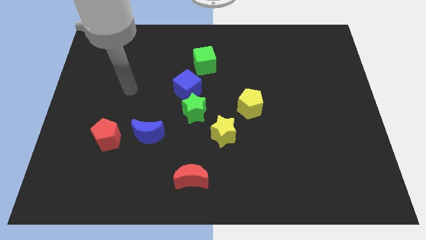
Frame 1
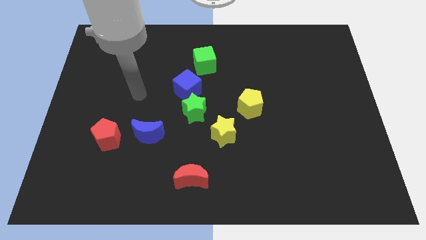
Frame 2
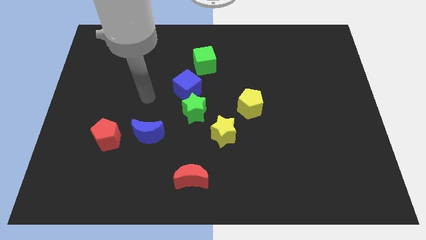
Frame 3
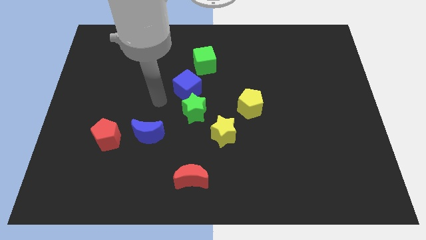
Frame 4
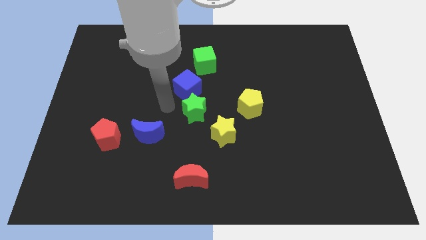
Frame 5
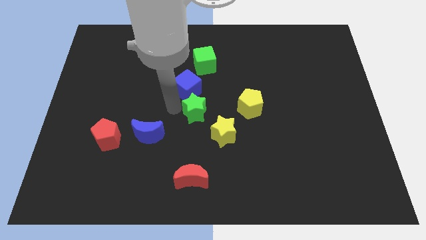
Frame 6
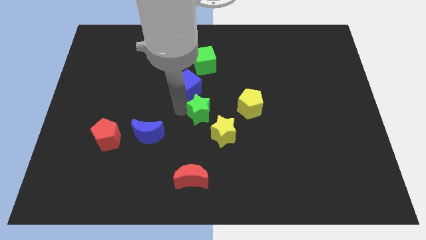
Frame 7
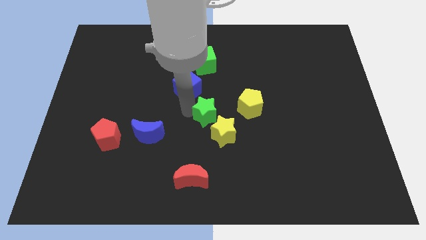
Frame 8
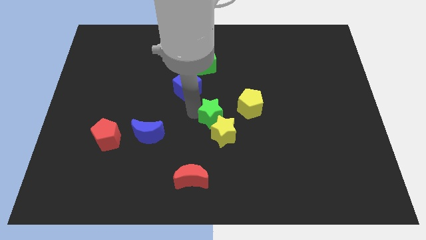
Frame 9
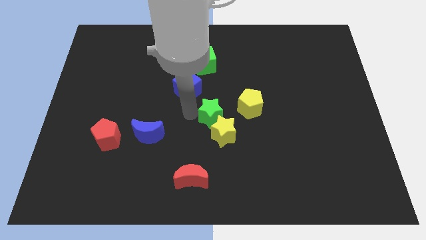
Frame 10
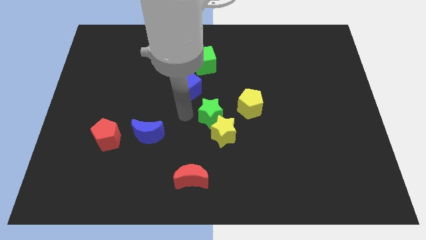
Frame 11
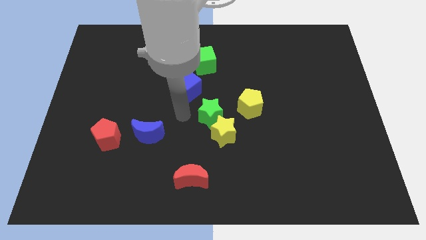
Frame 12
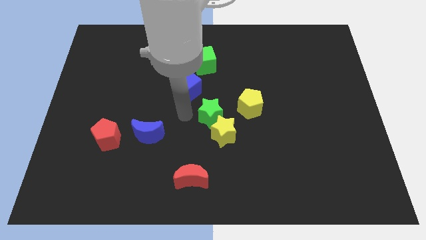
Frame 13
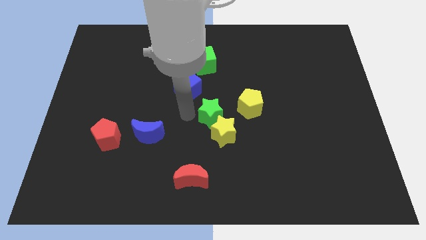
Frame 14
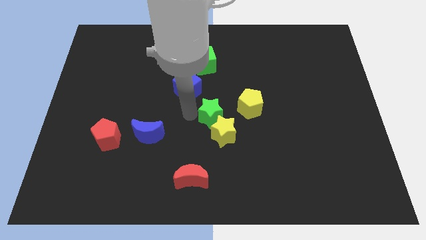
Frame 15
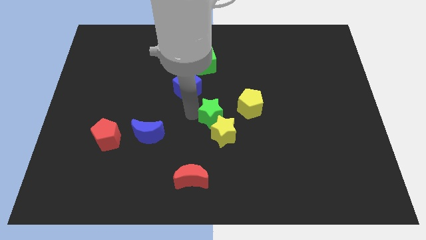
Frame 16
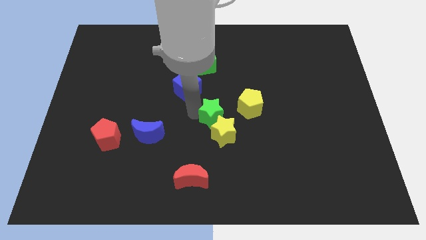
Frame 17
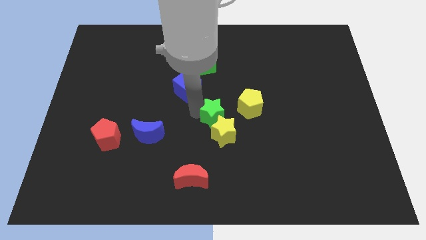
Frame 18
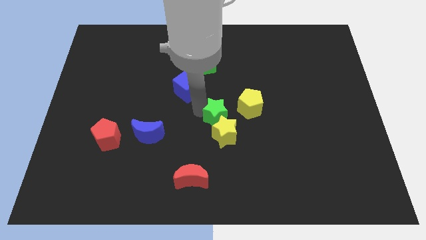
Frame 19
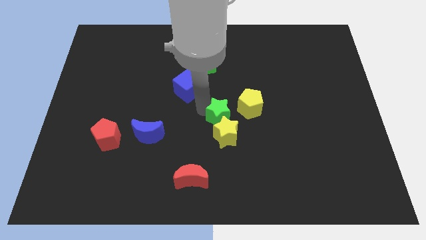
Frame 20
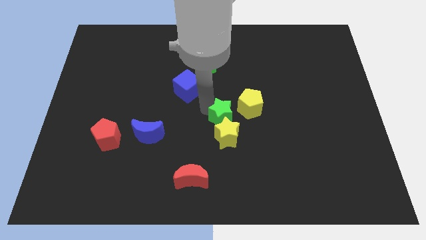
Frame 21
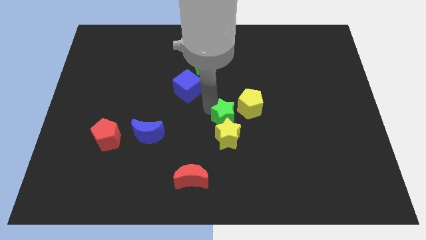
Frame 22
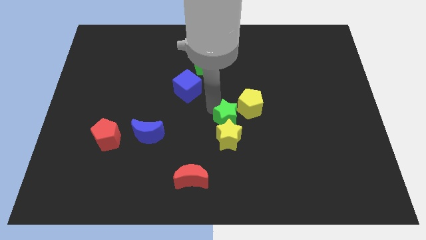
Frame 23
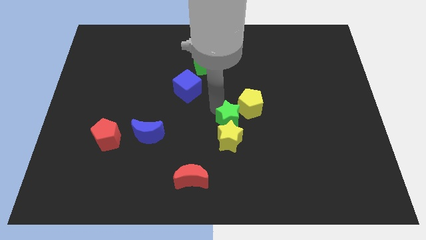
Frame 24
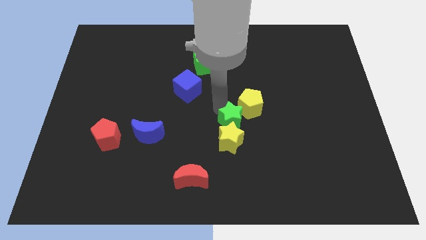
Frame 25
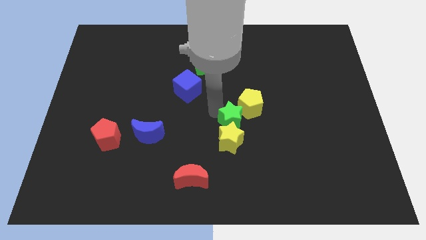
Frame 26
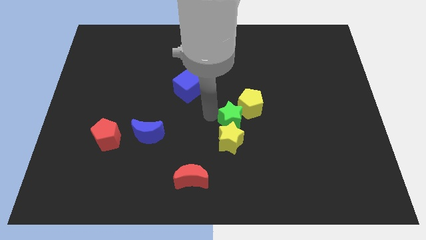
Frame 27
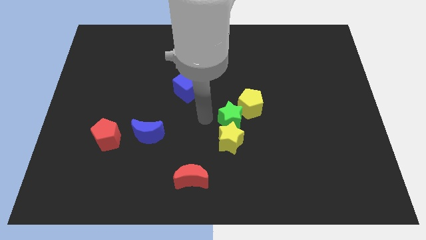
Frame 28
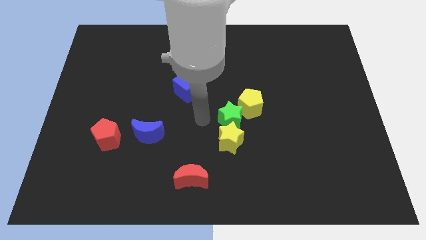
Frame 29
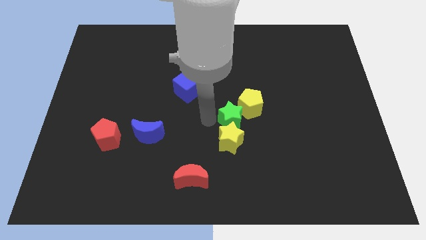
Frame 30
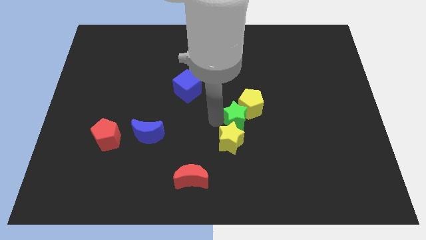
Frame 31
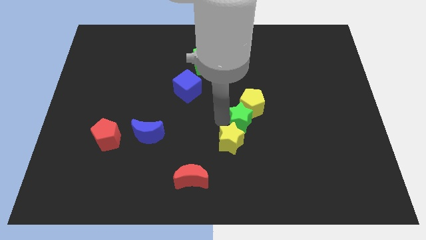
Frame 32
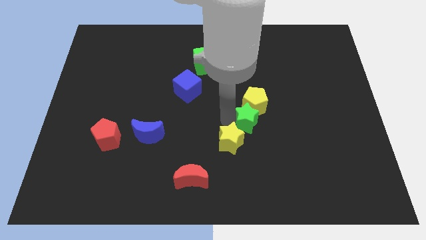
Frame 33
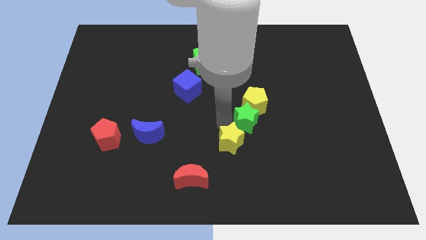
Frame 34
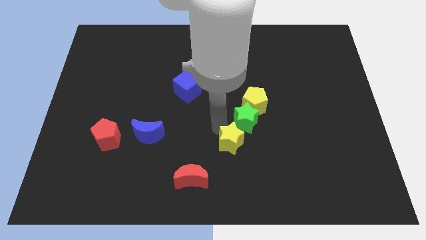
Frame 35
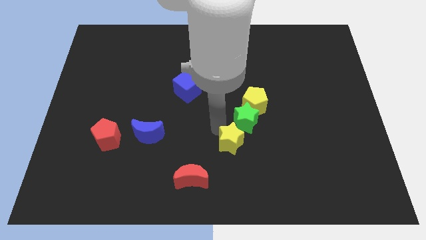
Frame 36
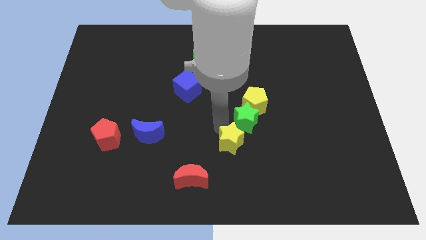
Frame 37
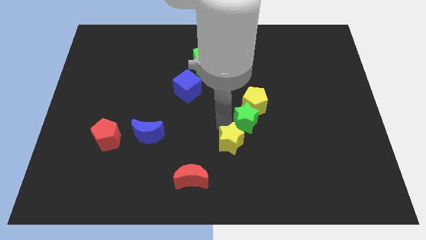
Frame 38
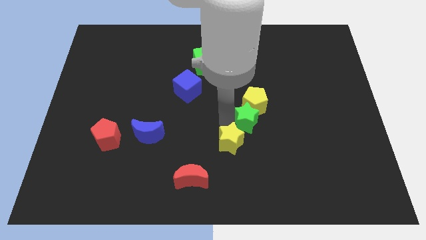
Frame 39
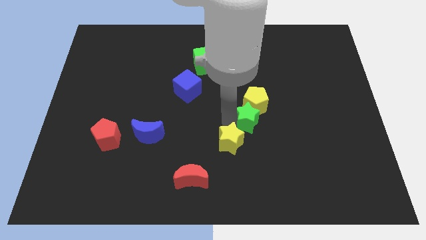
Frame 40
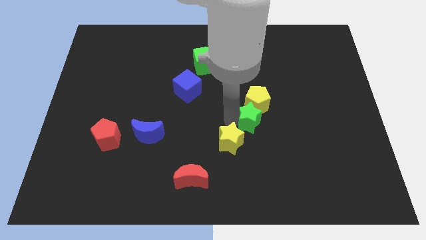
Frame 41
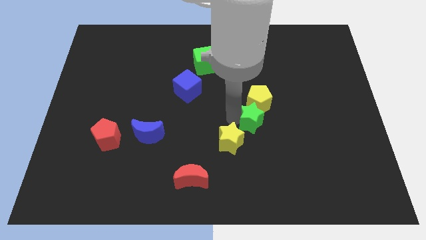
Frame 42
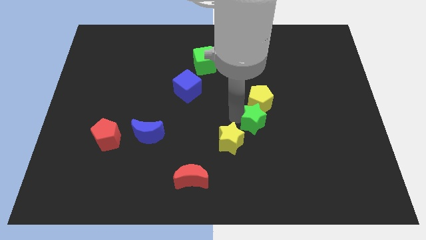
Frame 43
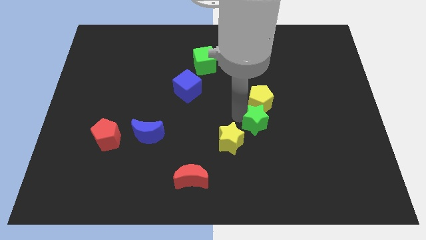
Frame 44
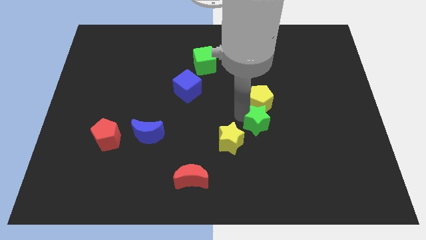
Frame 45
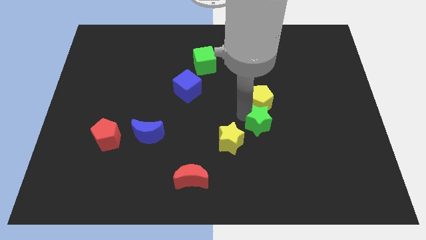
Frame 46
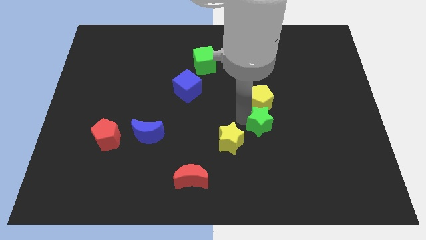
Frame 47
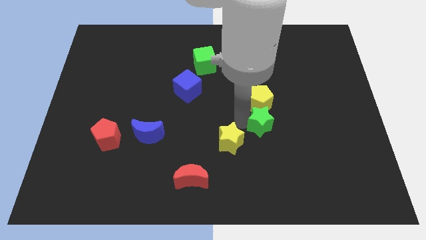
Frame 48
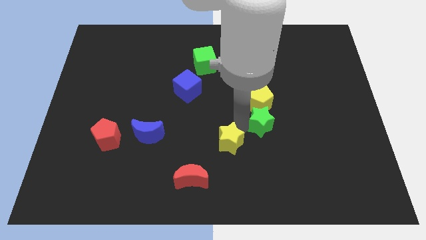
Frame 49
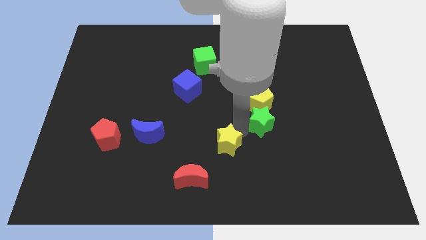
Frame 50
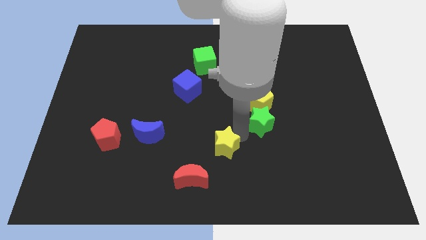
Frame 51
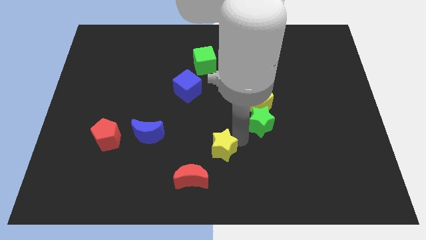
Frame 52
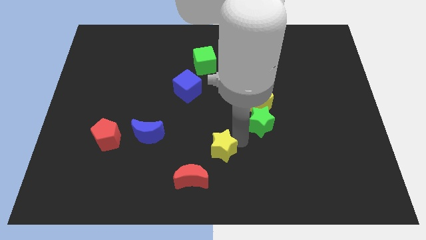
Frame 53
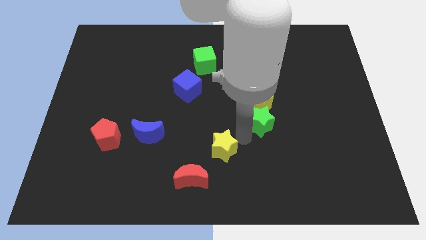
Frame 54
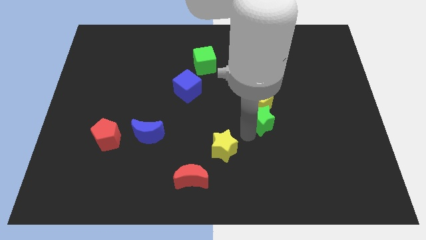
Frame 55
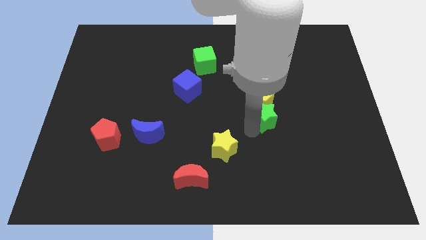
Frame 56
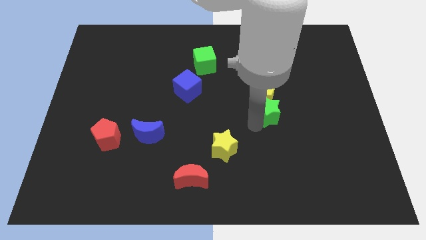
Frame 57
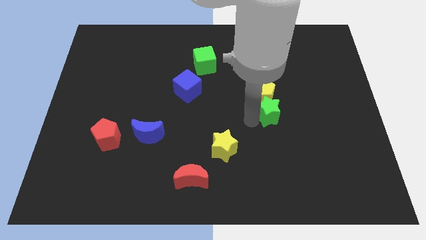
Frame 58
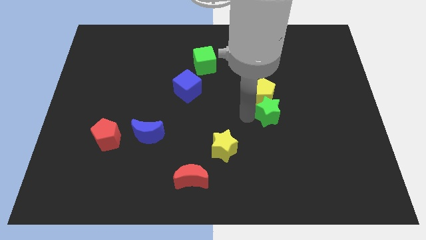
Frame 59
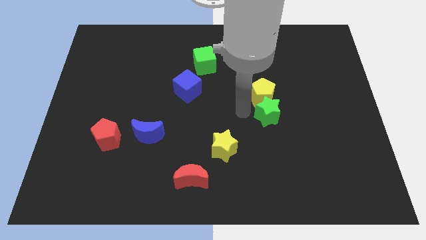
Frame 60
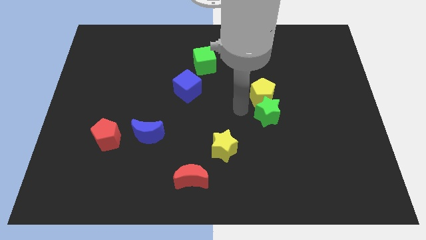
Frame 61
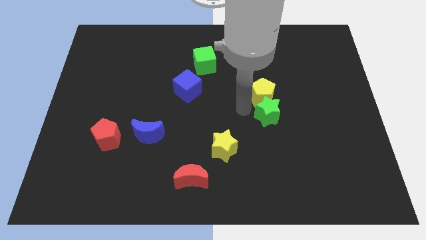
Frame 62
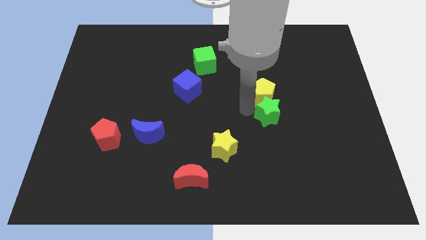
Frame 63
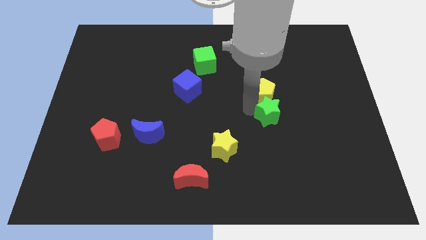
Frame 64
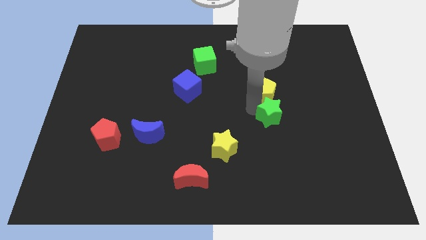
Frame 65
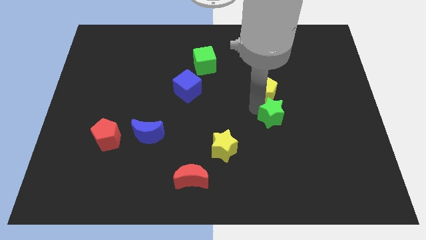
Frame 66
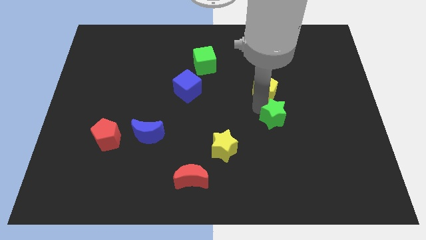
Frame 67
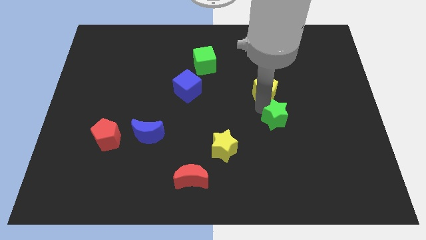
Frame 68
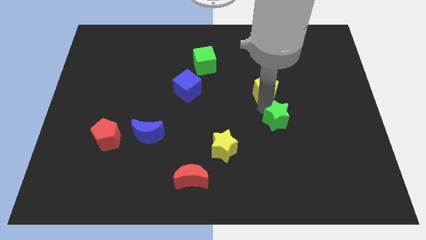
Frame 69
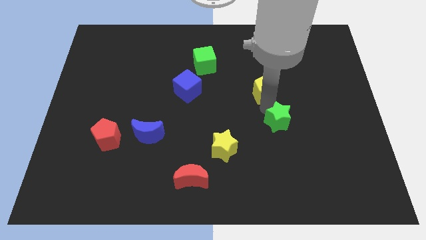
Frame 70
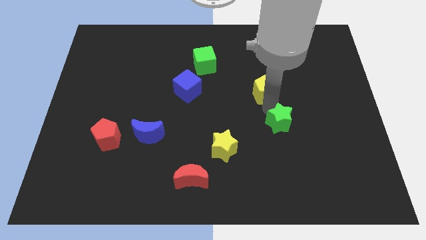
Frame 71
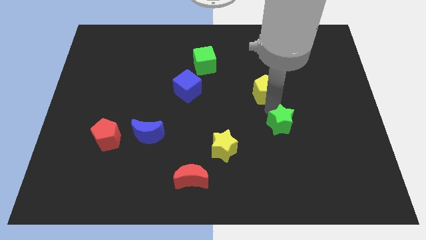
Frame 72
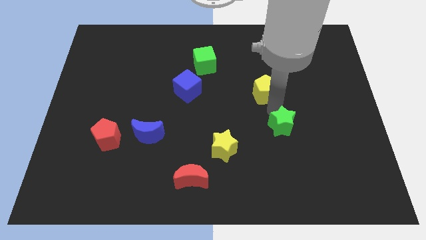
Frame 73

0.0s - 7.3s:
slide the green star right

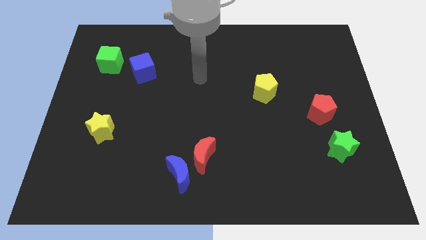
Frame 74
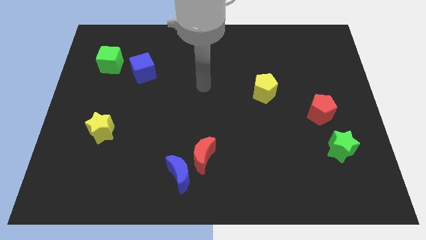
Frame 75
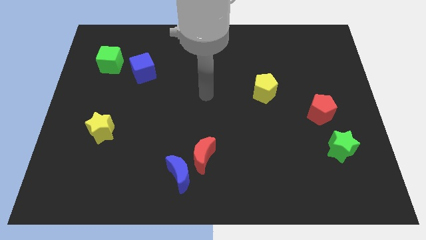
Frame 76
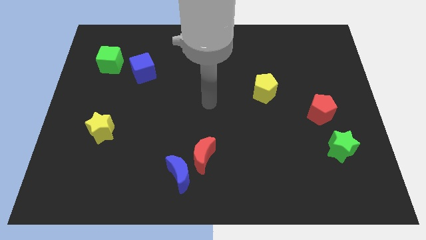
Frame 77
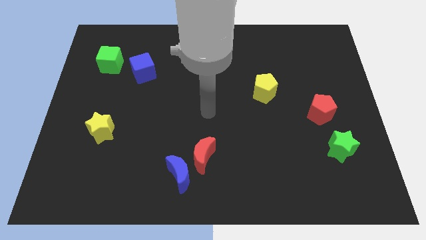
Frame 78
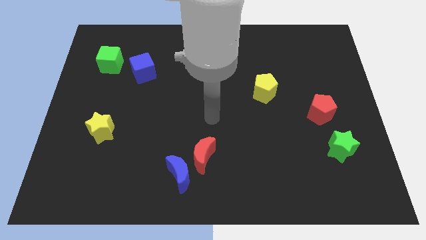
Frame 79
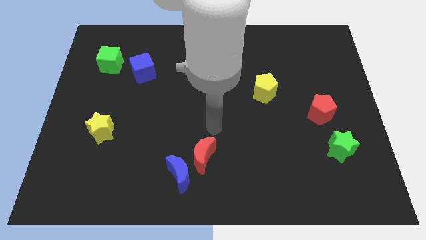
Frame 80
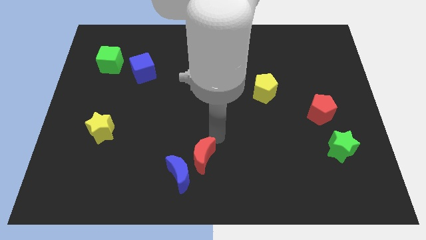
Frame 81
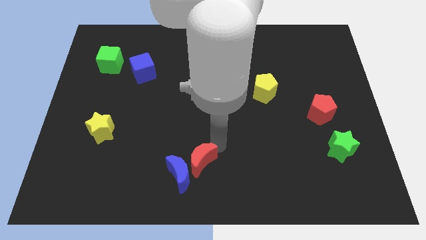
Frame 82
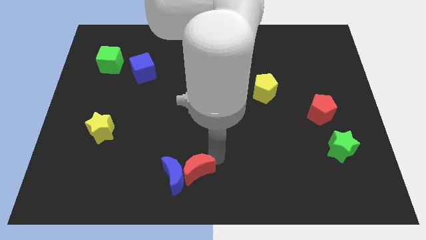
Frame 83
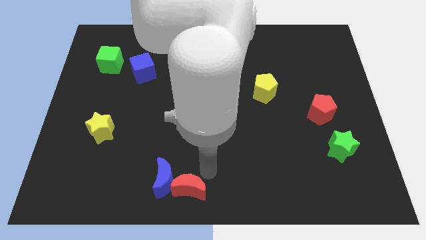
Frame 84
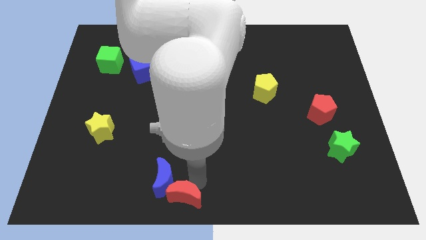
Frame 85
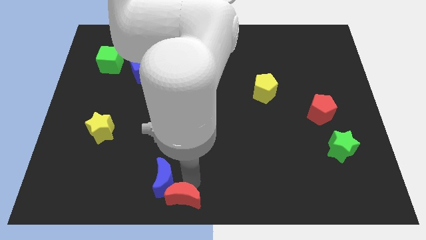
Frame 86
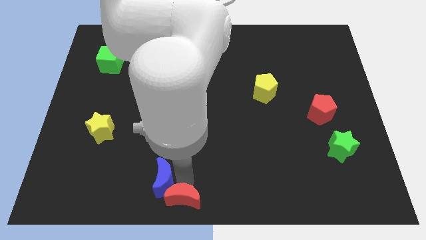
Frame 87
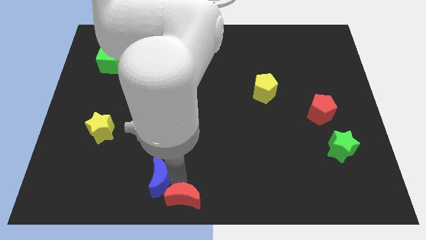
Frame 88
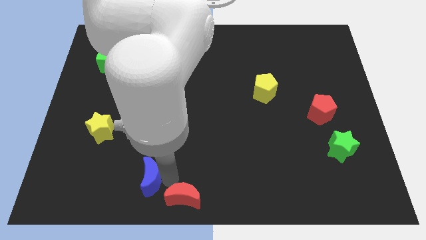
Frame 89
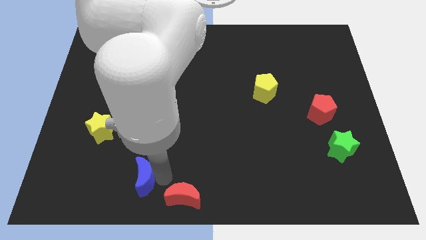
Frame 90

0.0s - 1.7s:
slide the blue moon to the left somewhat
